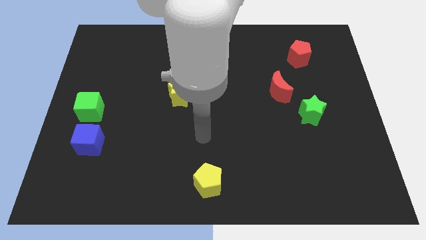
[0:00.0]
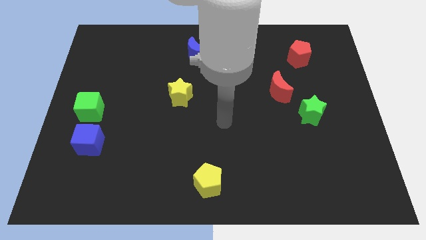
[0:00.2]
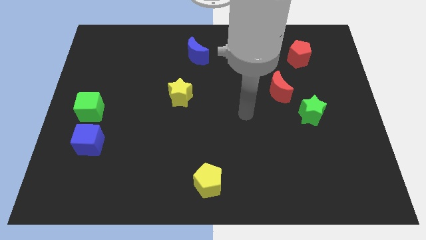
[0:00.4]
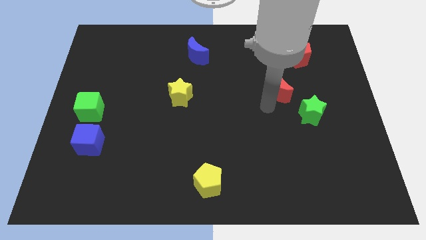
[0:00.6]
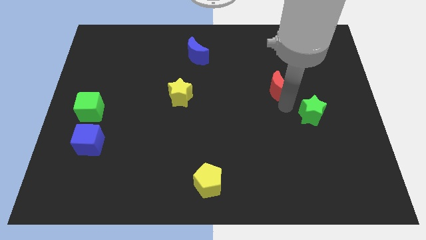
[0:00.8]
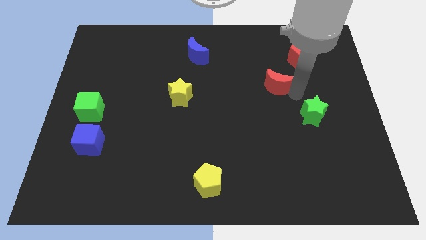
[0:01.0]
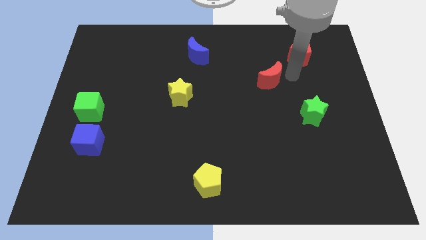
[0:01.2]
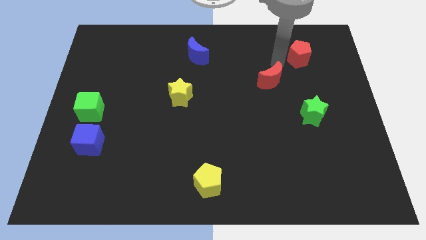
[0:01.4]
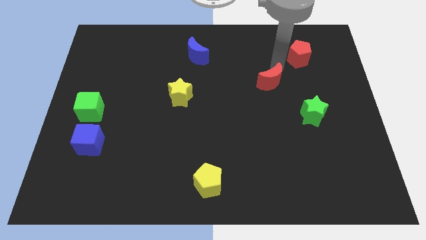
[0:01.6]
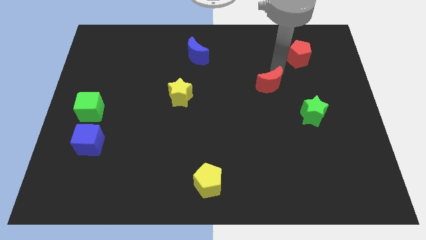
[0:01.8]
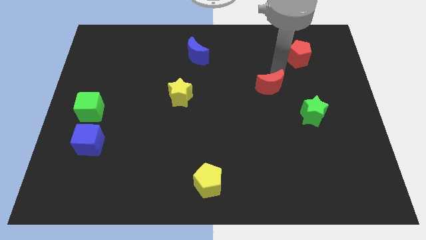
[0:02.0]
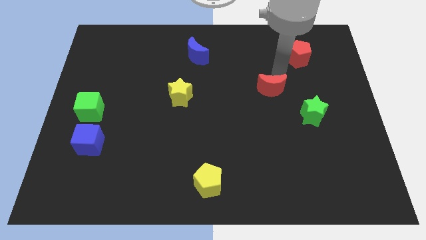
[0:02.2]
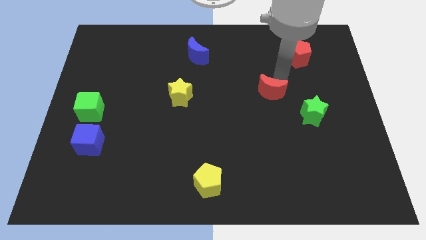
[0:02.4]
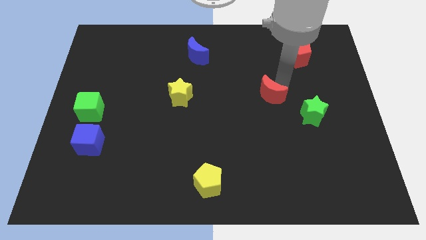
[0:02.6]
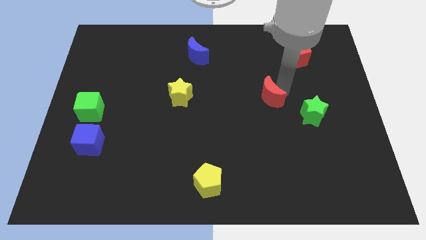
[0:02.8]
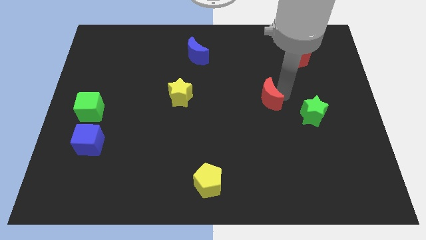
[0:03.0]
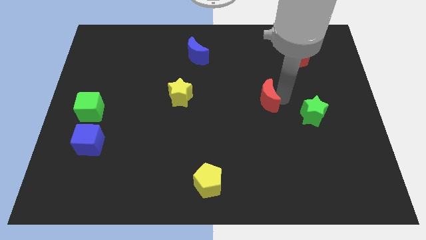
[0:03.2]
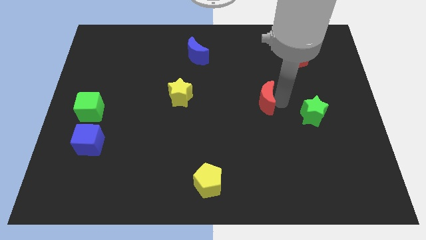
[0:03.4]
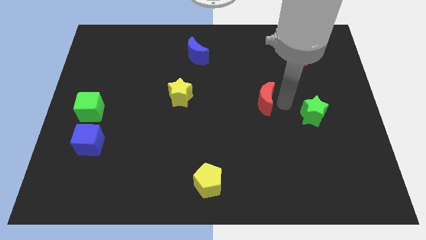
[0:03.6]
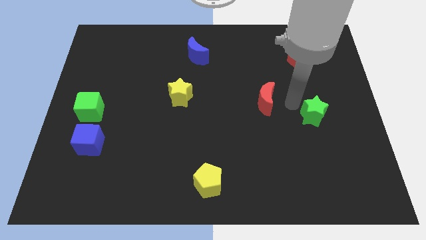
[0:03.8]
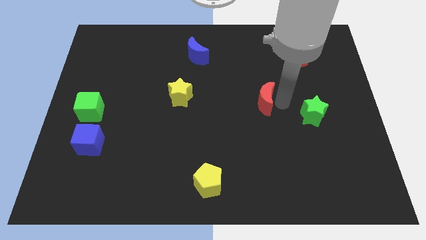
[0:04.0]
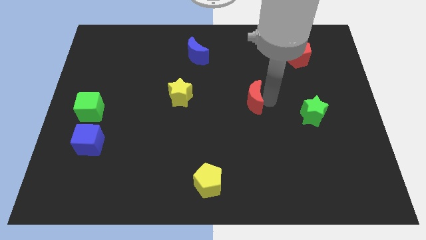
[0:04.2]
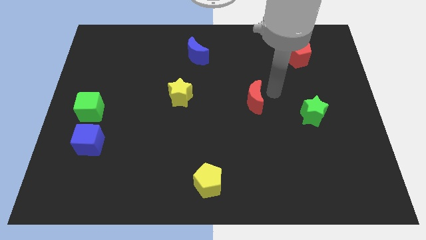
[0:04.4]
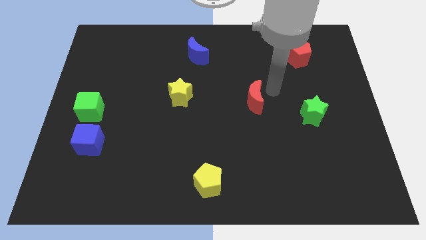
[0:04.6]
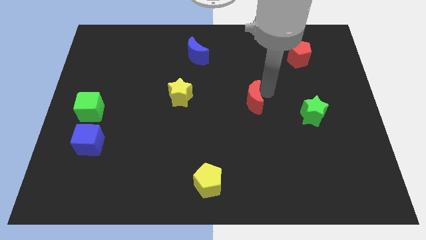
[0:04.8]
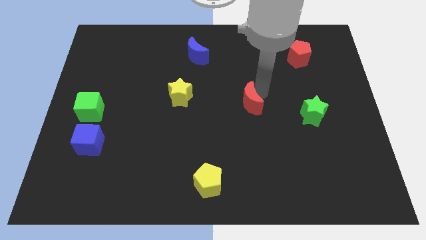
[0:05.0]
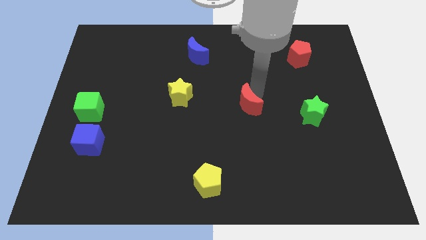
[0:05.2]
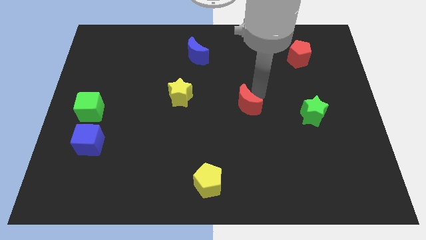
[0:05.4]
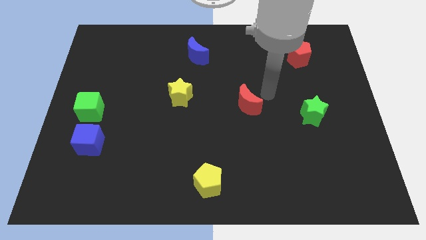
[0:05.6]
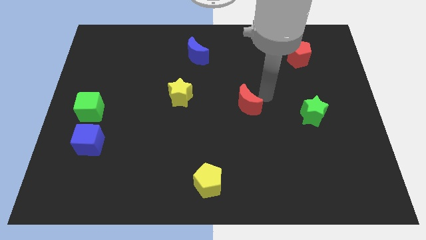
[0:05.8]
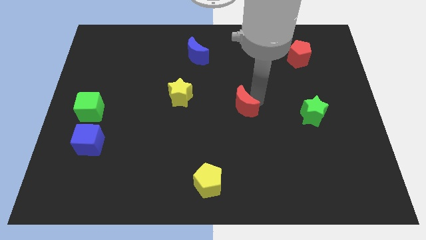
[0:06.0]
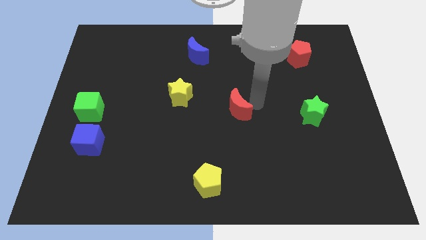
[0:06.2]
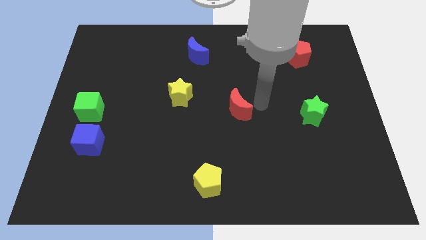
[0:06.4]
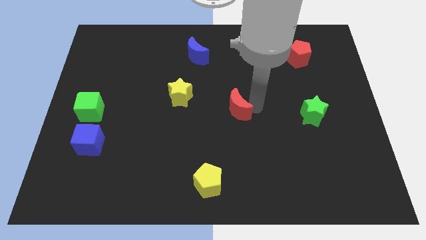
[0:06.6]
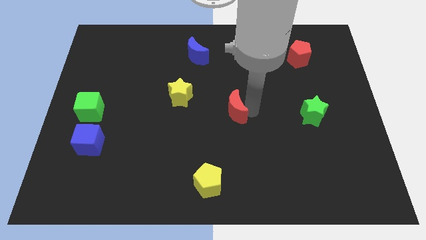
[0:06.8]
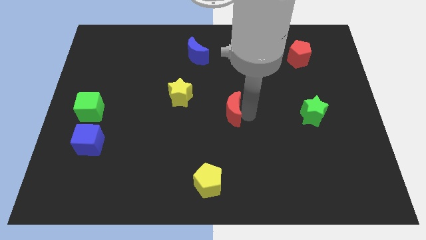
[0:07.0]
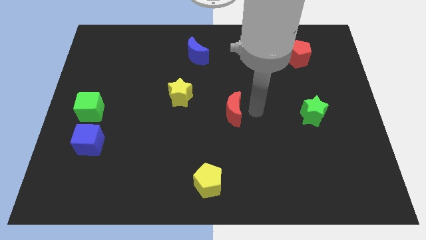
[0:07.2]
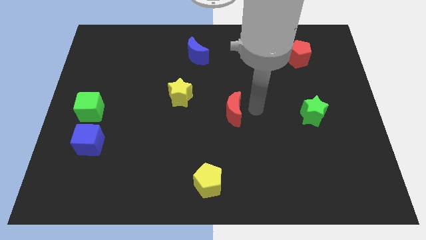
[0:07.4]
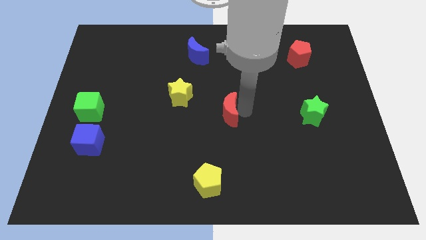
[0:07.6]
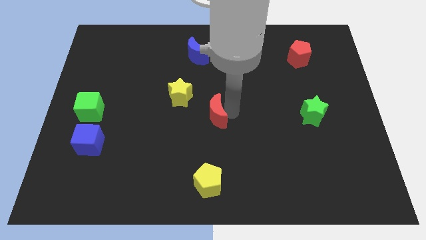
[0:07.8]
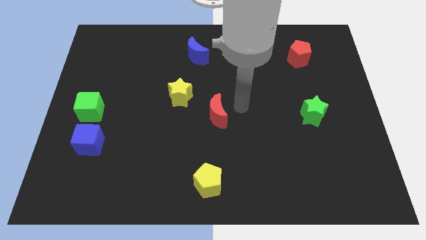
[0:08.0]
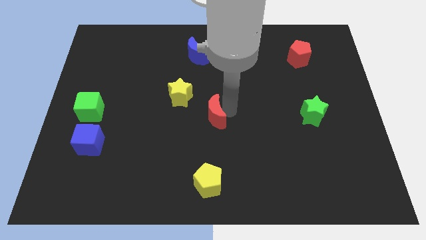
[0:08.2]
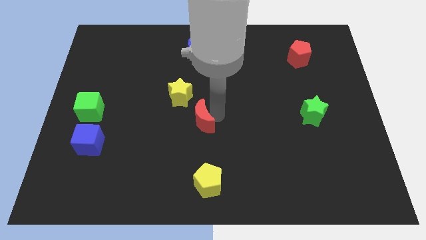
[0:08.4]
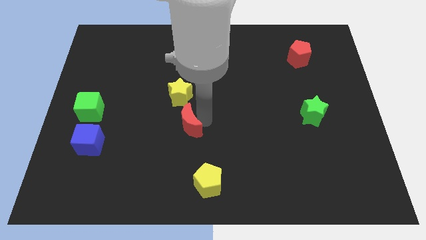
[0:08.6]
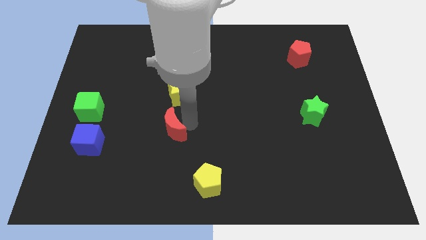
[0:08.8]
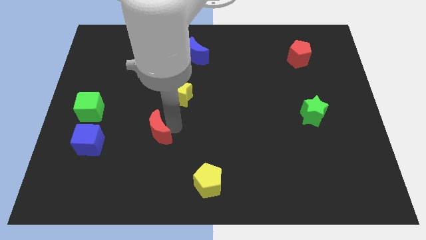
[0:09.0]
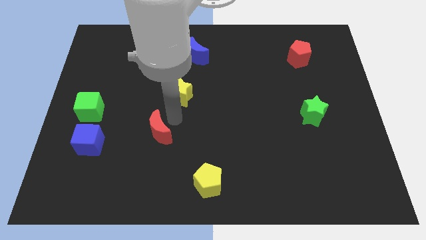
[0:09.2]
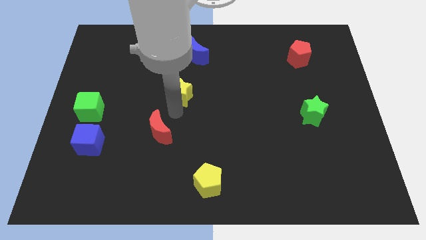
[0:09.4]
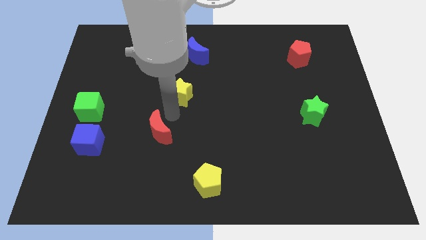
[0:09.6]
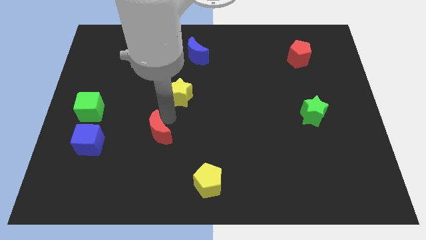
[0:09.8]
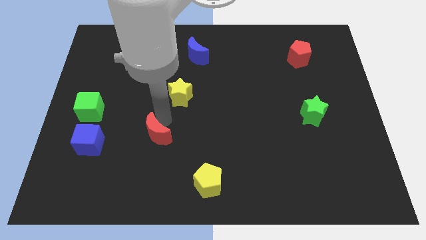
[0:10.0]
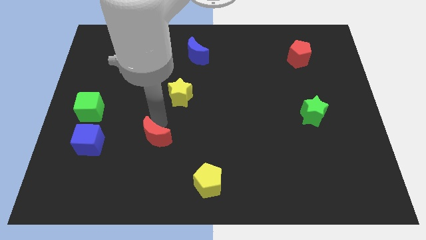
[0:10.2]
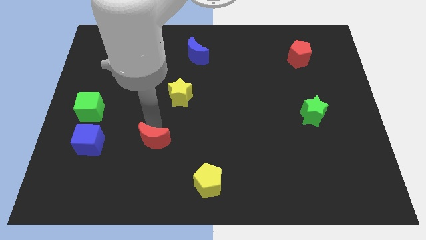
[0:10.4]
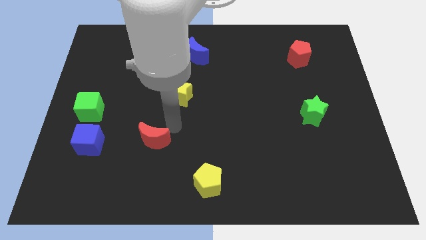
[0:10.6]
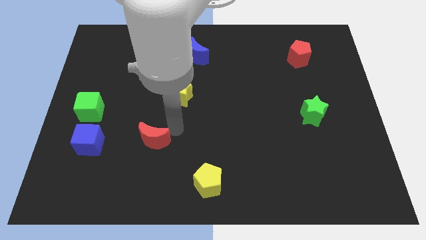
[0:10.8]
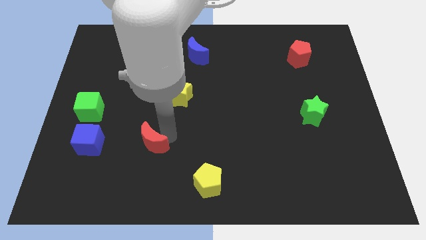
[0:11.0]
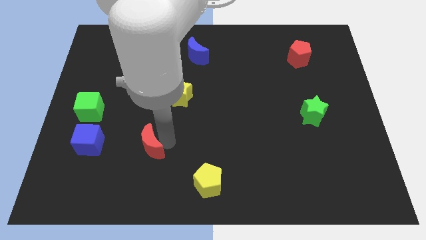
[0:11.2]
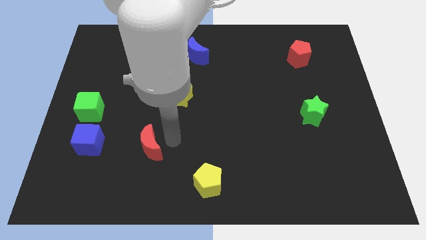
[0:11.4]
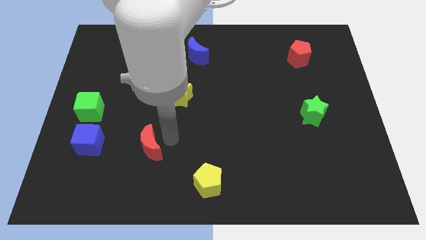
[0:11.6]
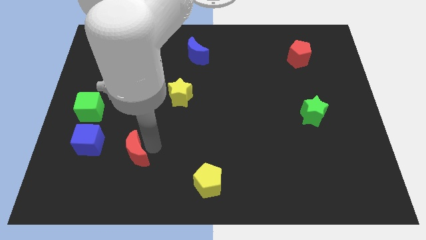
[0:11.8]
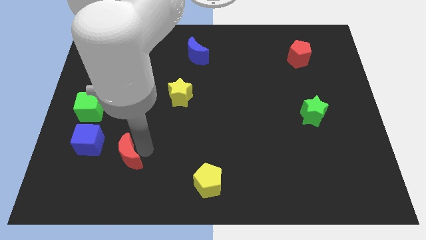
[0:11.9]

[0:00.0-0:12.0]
push the red moon diagonally down and to the right of the blue cube

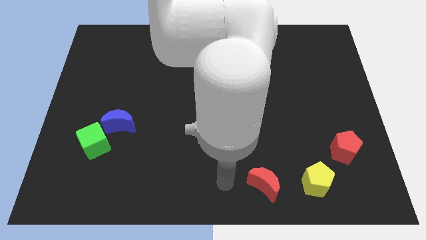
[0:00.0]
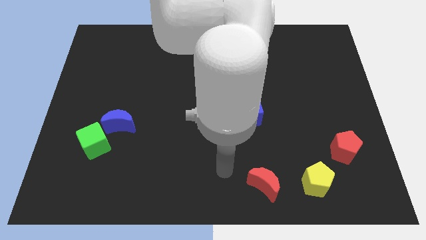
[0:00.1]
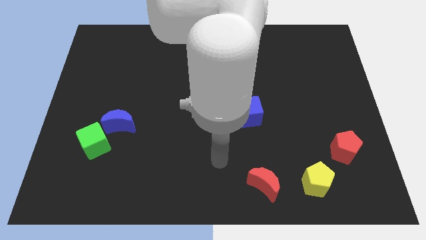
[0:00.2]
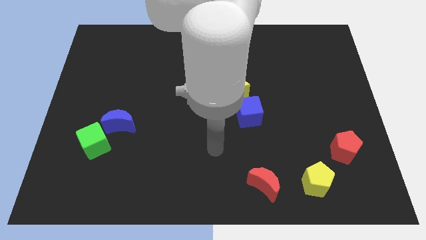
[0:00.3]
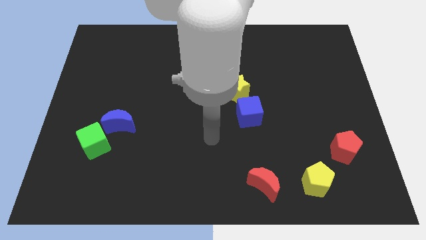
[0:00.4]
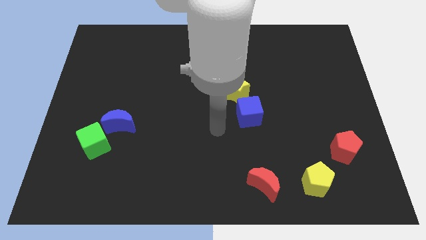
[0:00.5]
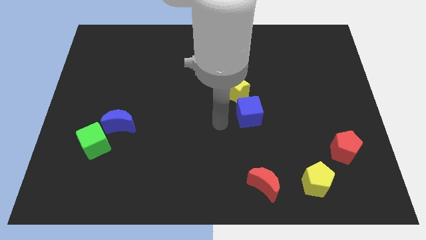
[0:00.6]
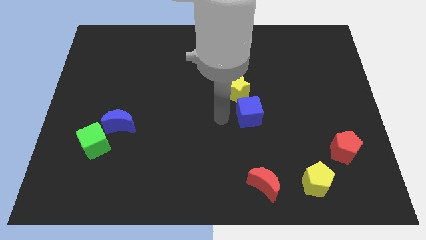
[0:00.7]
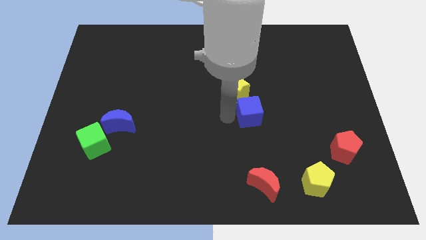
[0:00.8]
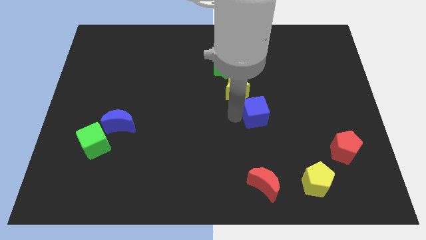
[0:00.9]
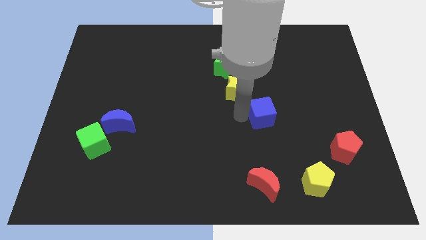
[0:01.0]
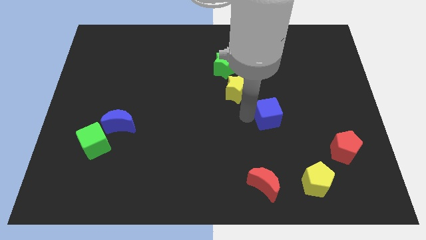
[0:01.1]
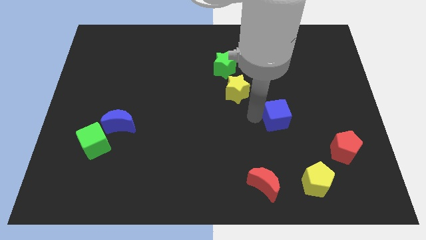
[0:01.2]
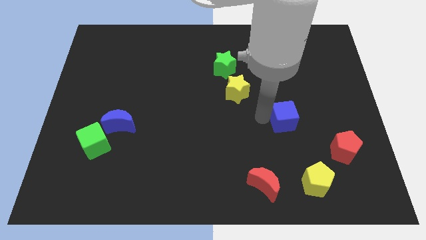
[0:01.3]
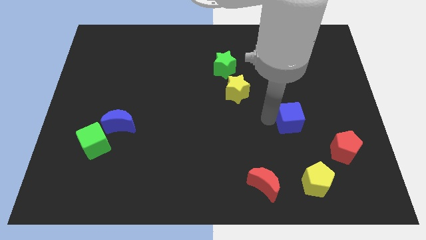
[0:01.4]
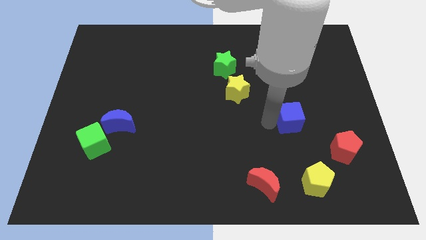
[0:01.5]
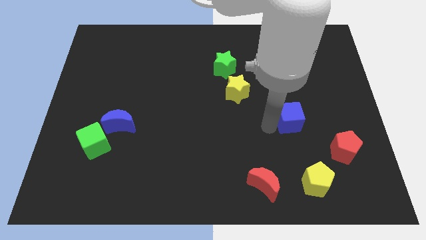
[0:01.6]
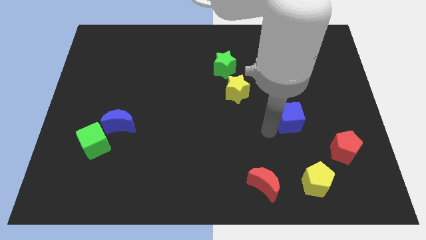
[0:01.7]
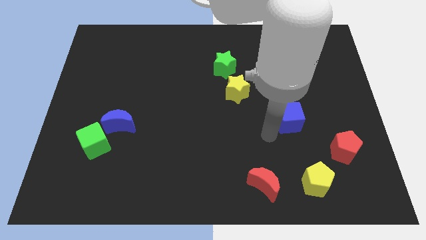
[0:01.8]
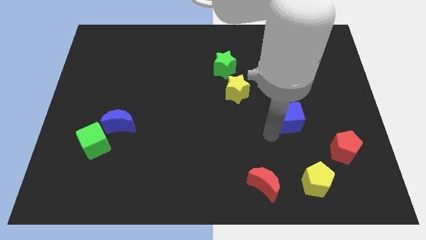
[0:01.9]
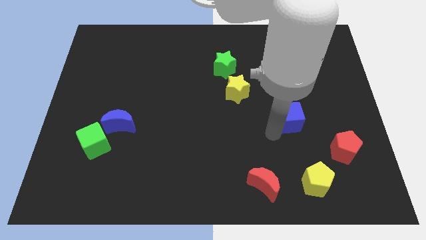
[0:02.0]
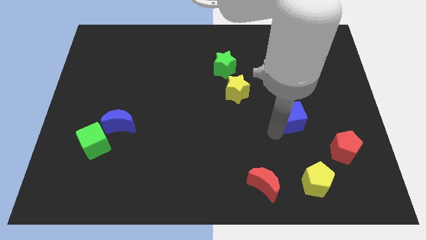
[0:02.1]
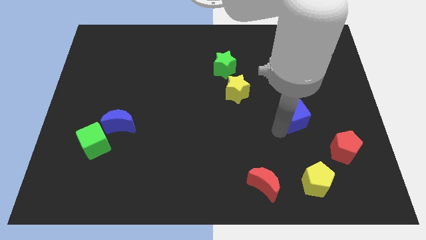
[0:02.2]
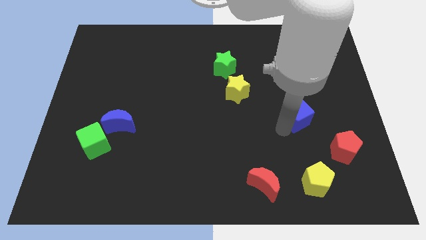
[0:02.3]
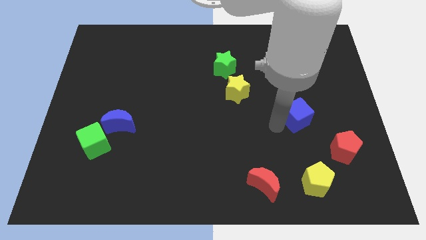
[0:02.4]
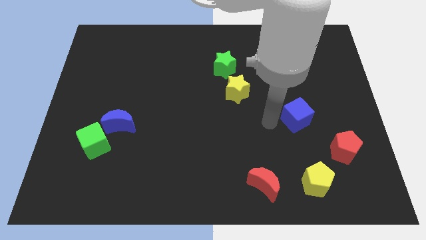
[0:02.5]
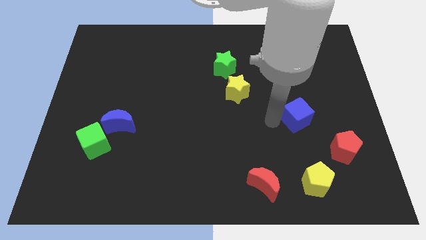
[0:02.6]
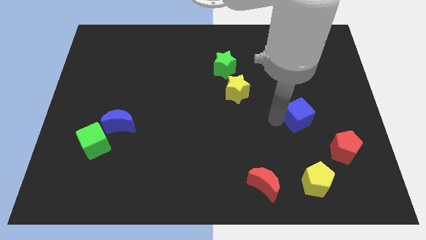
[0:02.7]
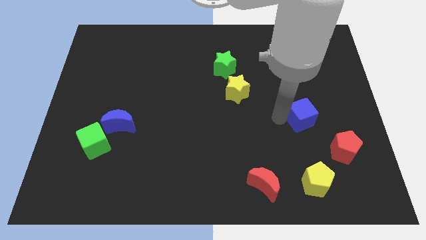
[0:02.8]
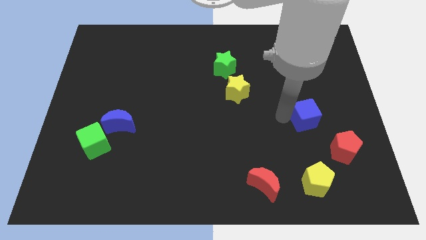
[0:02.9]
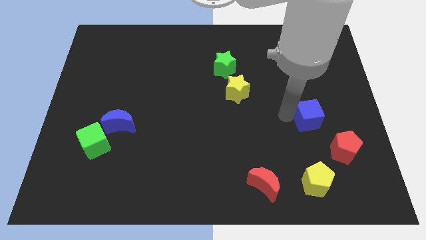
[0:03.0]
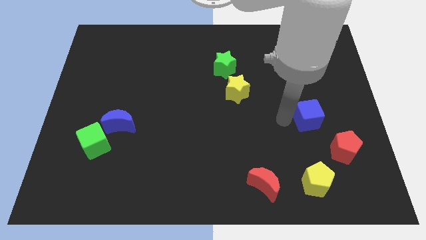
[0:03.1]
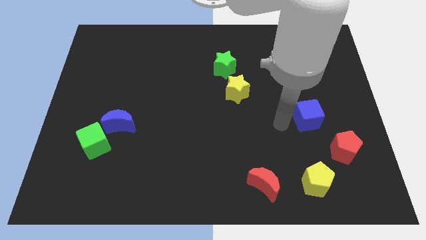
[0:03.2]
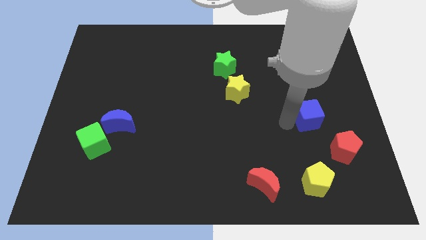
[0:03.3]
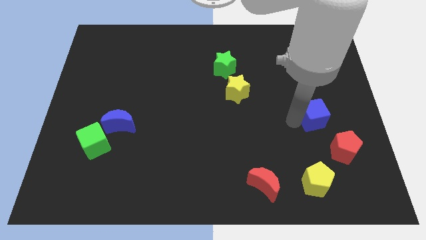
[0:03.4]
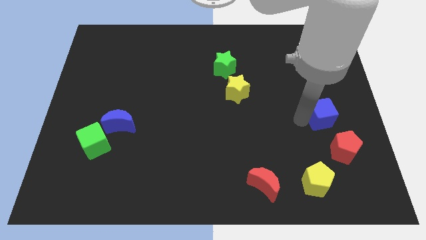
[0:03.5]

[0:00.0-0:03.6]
put the blue cube above the red pentagon
